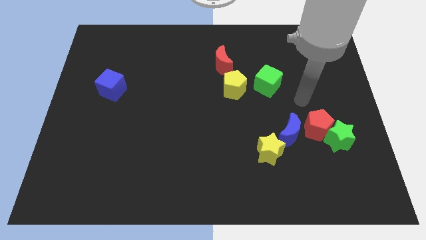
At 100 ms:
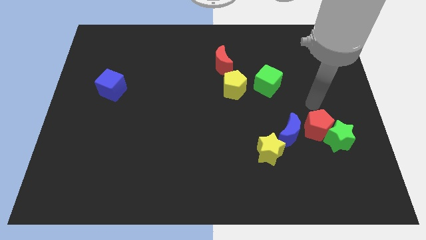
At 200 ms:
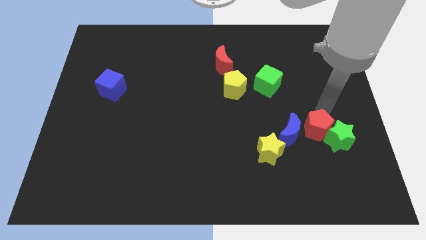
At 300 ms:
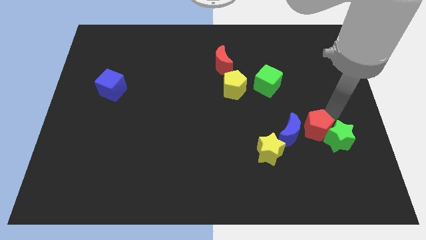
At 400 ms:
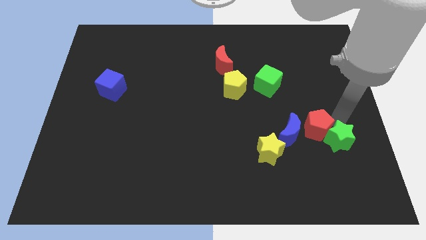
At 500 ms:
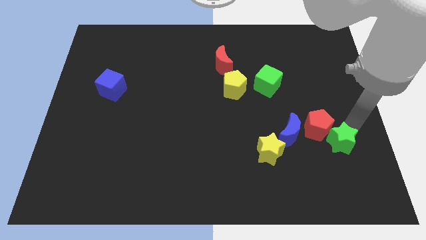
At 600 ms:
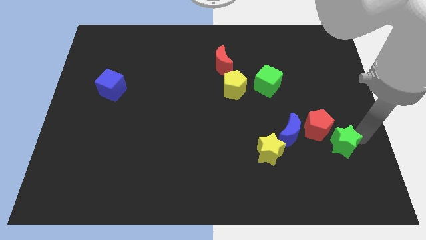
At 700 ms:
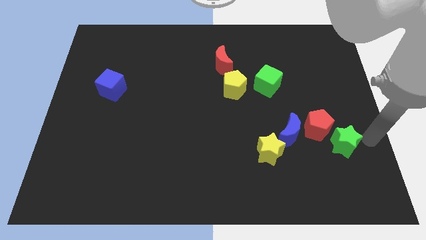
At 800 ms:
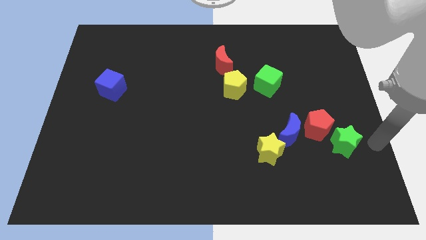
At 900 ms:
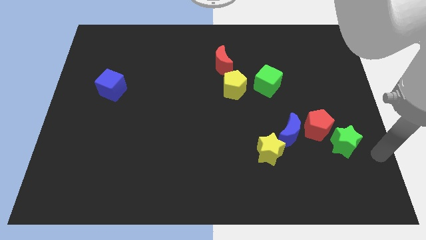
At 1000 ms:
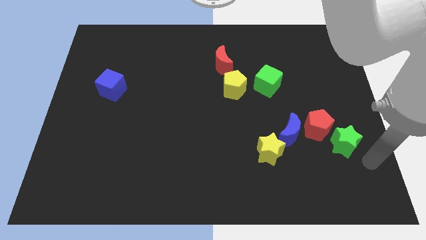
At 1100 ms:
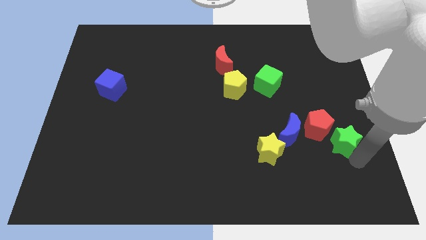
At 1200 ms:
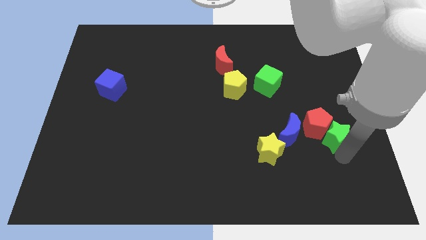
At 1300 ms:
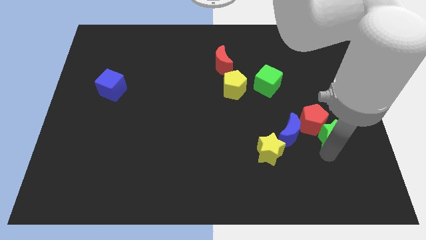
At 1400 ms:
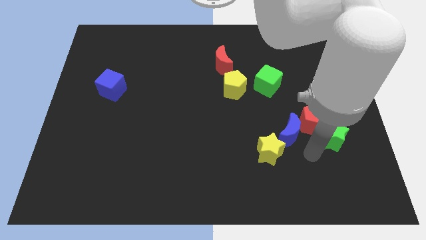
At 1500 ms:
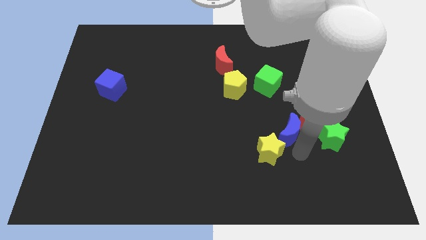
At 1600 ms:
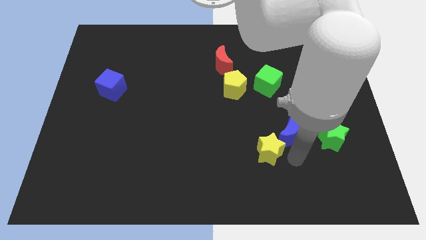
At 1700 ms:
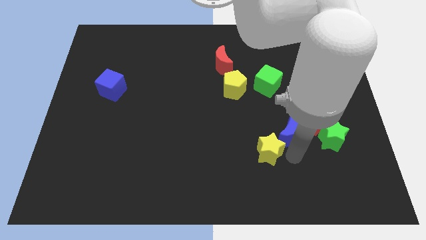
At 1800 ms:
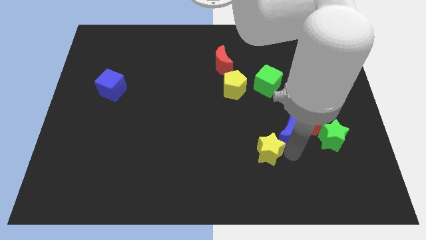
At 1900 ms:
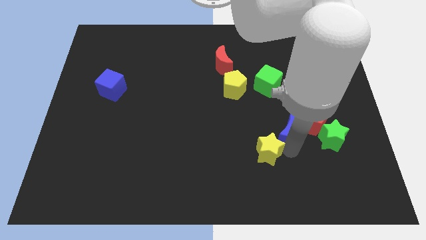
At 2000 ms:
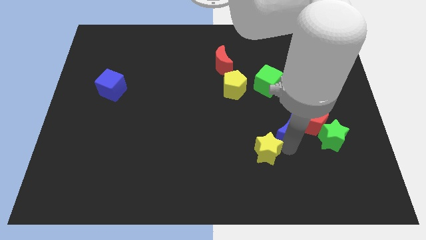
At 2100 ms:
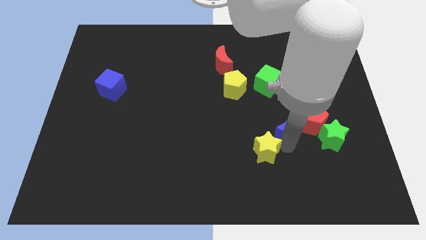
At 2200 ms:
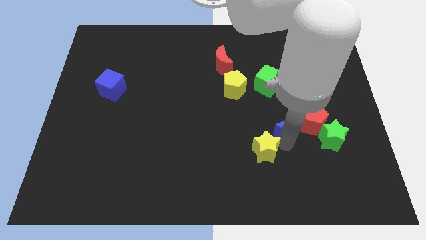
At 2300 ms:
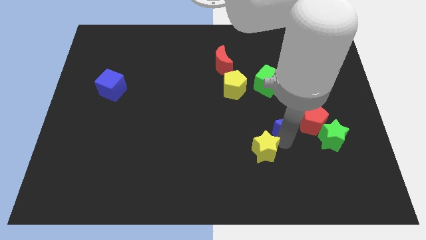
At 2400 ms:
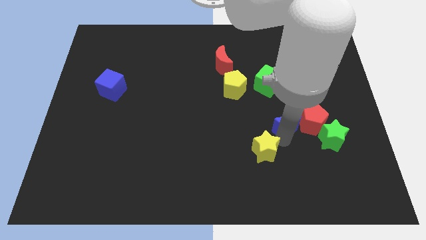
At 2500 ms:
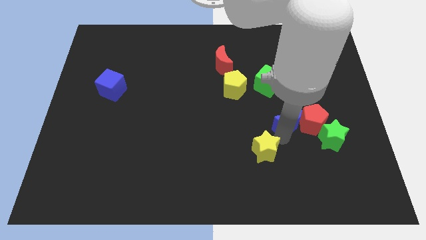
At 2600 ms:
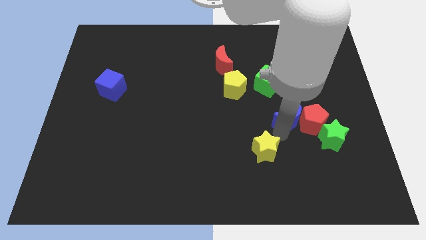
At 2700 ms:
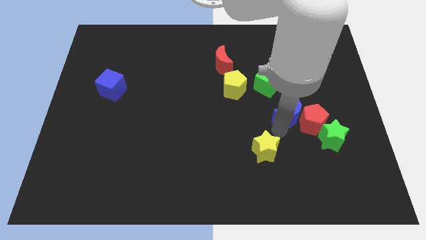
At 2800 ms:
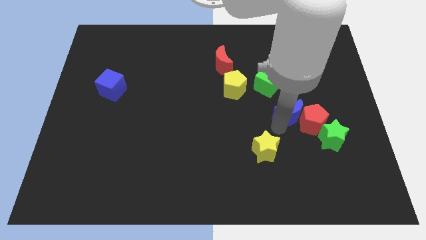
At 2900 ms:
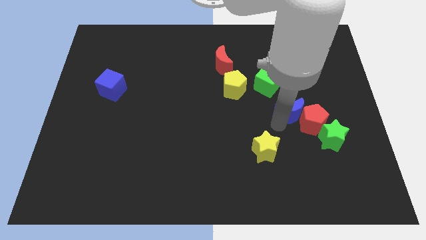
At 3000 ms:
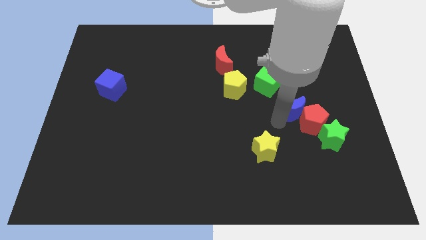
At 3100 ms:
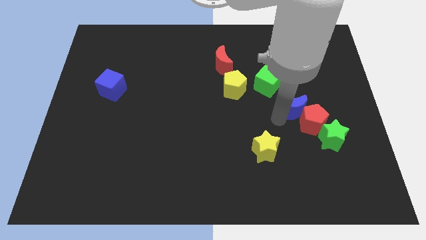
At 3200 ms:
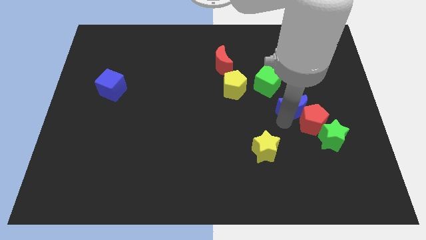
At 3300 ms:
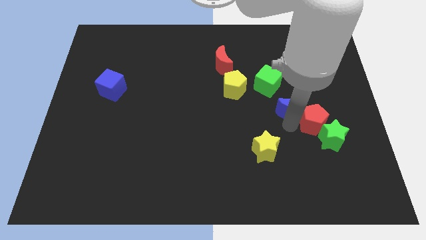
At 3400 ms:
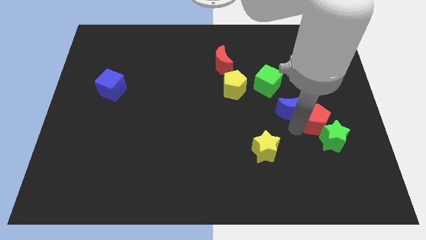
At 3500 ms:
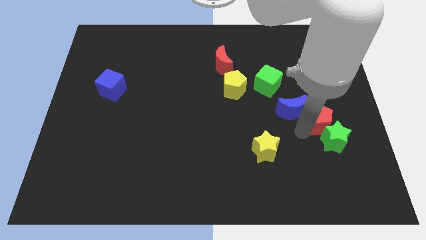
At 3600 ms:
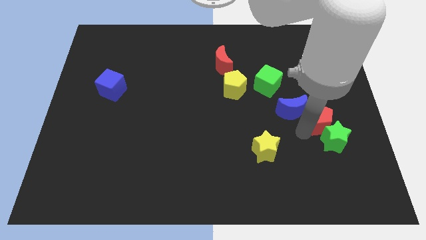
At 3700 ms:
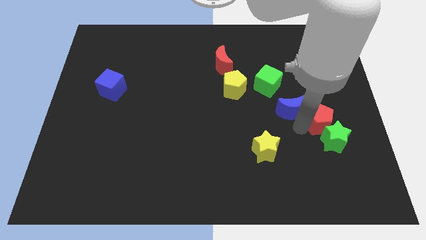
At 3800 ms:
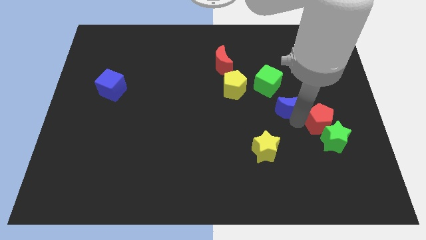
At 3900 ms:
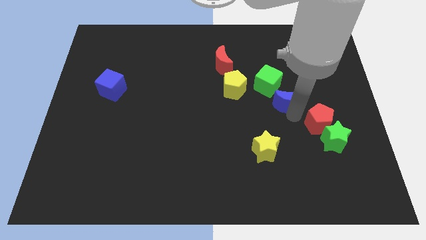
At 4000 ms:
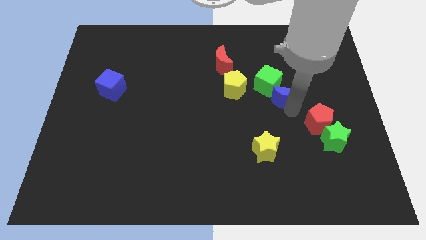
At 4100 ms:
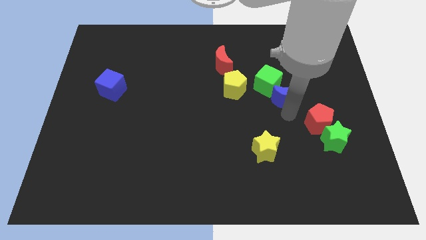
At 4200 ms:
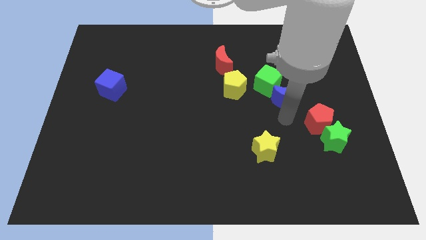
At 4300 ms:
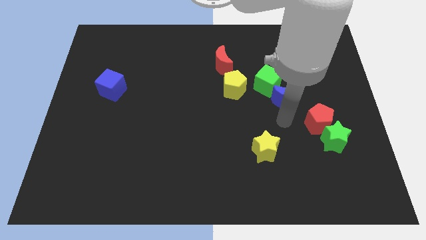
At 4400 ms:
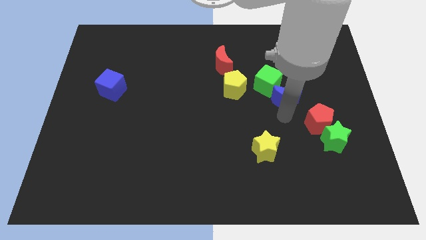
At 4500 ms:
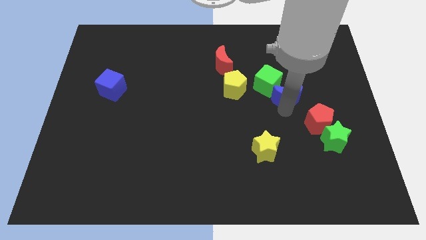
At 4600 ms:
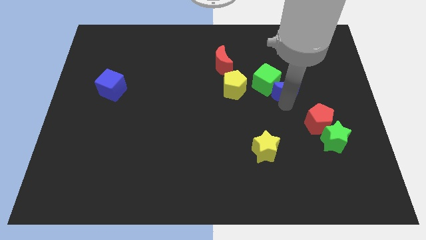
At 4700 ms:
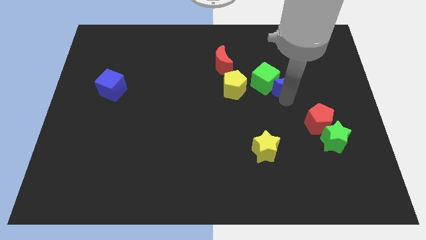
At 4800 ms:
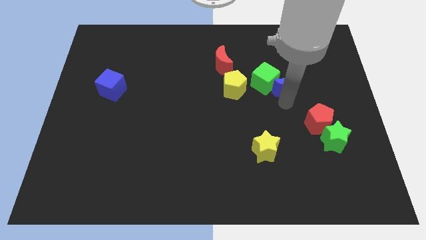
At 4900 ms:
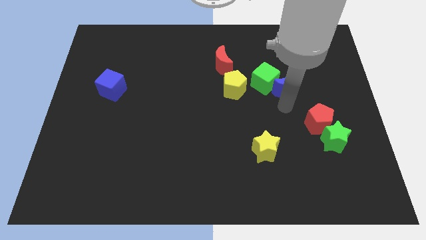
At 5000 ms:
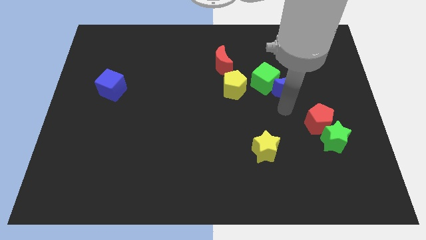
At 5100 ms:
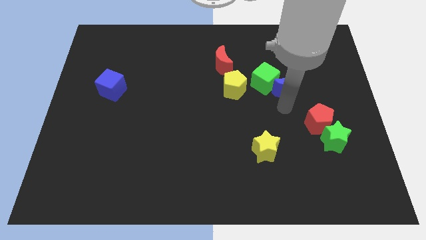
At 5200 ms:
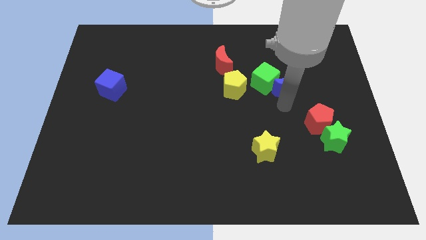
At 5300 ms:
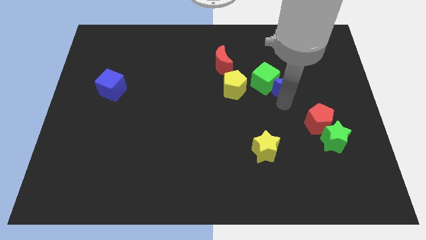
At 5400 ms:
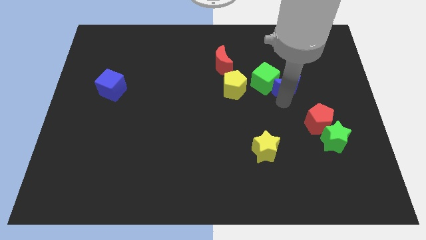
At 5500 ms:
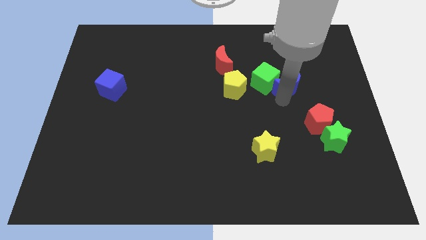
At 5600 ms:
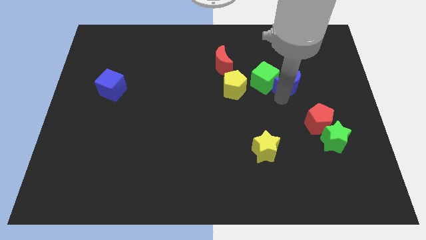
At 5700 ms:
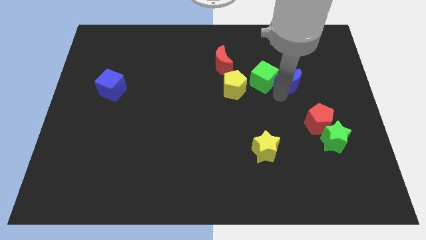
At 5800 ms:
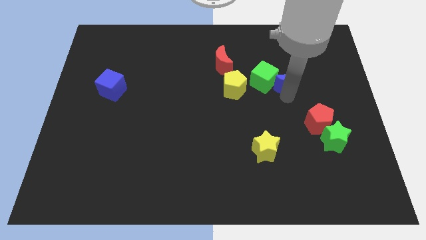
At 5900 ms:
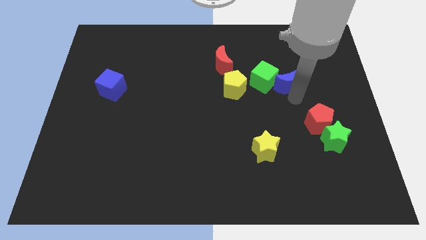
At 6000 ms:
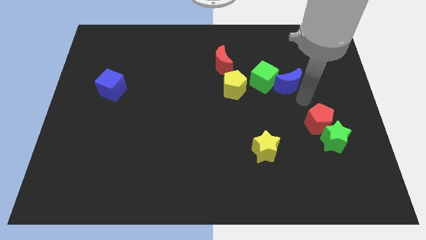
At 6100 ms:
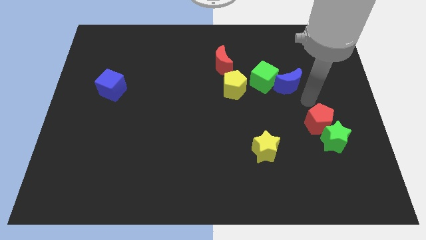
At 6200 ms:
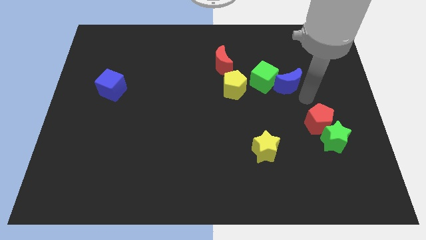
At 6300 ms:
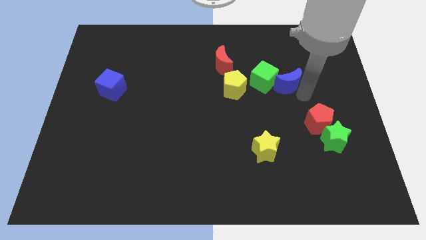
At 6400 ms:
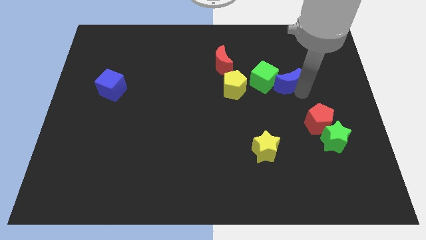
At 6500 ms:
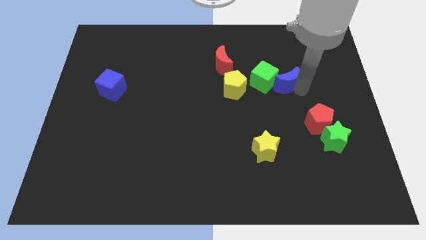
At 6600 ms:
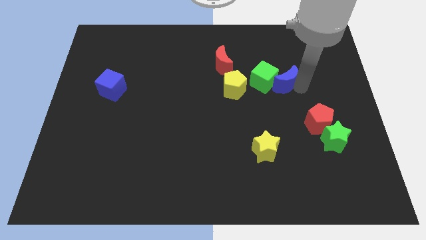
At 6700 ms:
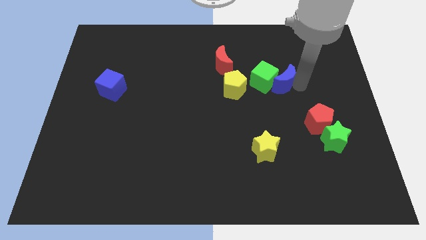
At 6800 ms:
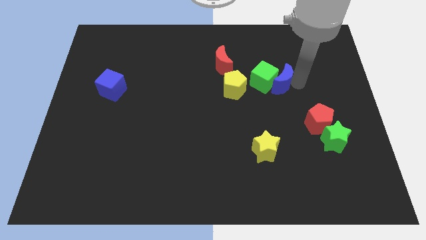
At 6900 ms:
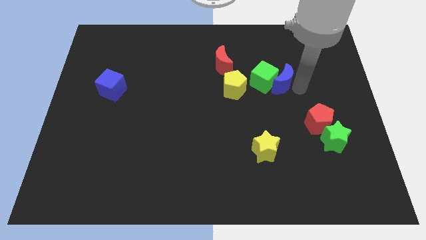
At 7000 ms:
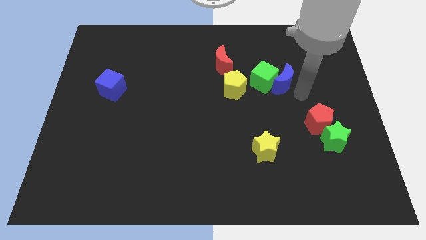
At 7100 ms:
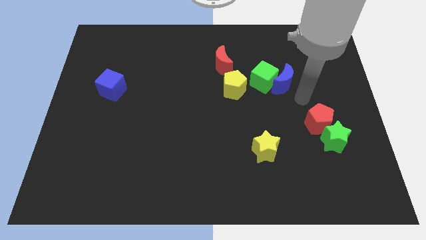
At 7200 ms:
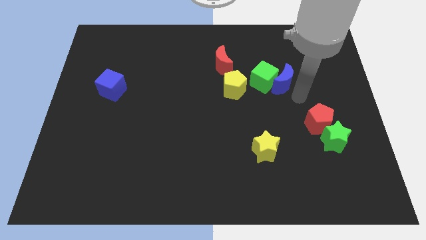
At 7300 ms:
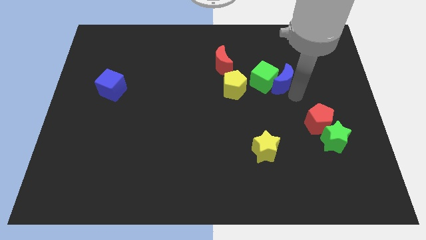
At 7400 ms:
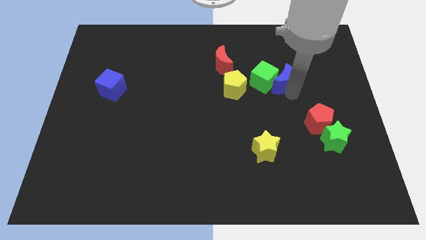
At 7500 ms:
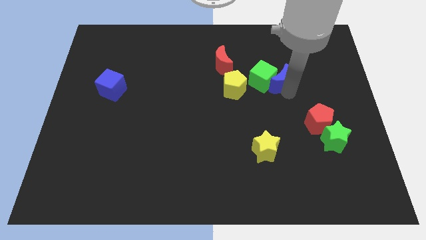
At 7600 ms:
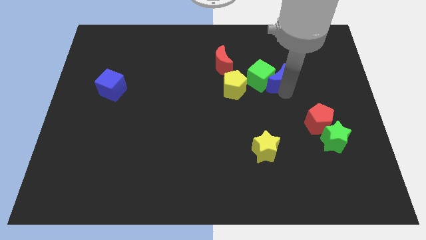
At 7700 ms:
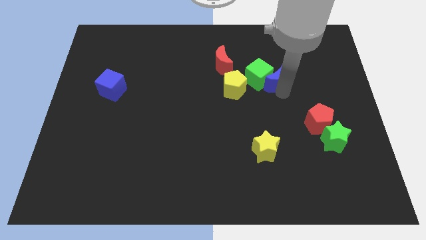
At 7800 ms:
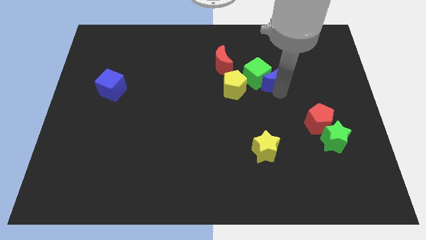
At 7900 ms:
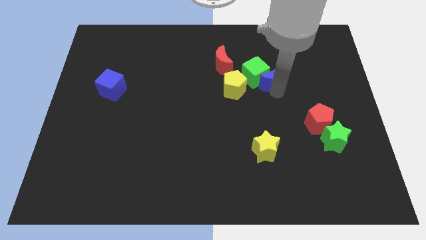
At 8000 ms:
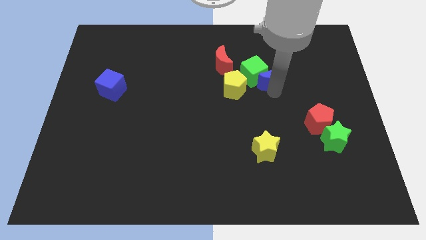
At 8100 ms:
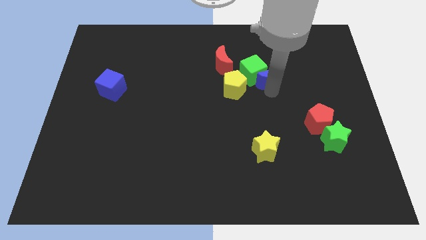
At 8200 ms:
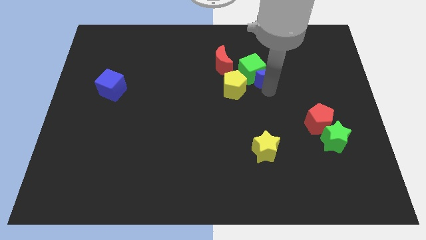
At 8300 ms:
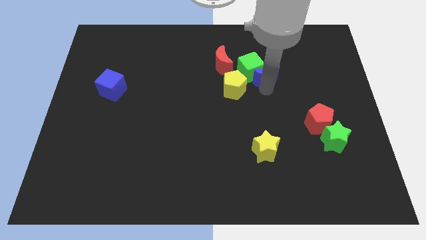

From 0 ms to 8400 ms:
push the blue moon to the right of the red moon
